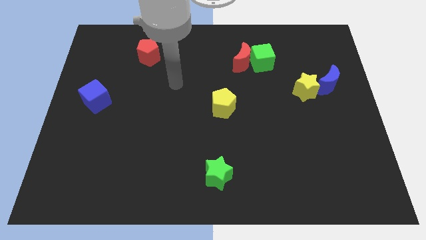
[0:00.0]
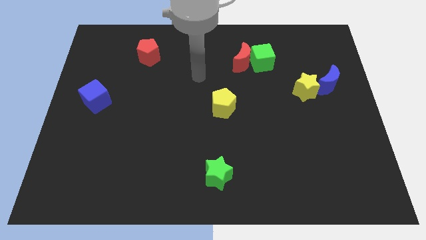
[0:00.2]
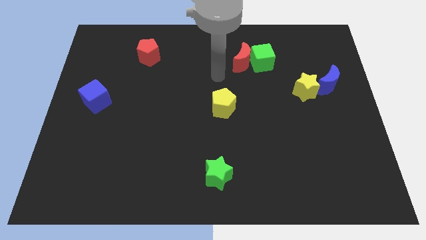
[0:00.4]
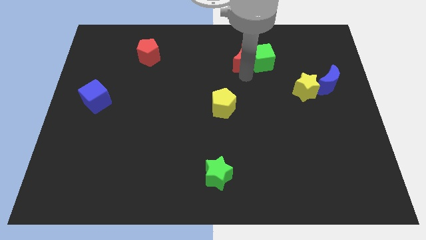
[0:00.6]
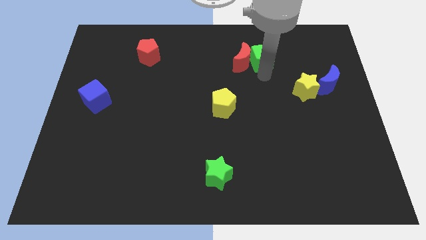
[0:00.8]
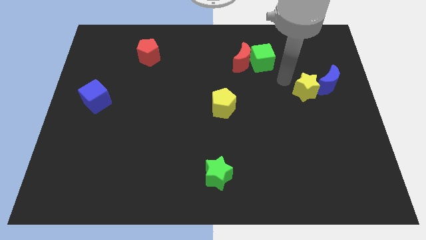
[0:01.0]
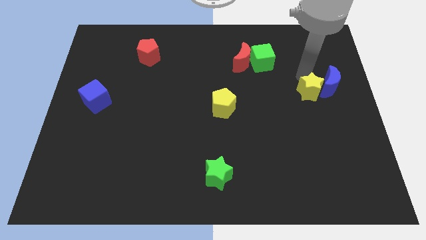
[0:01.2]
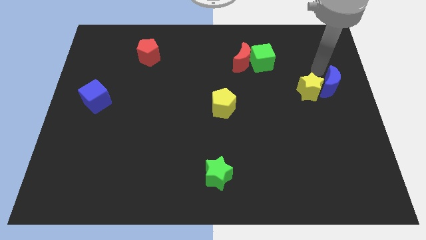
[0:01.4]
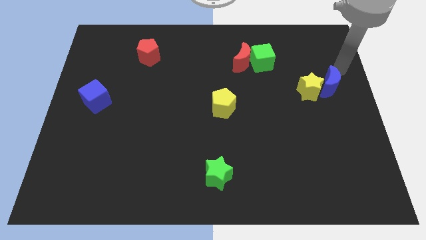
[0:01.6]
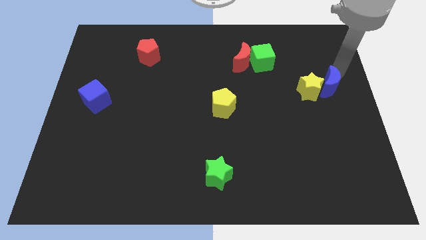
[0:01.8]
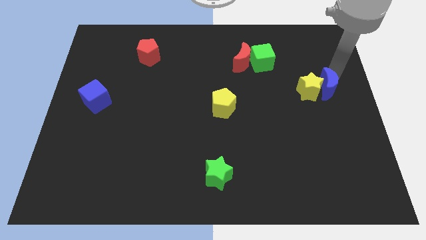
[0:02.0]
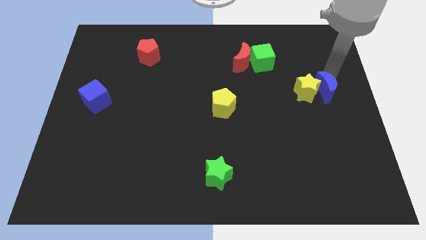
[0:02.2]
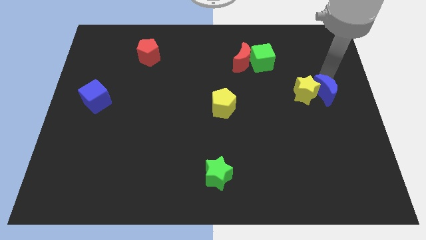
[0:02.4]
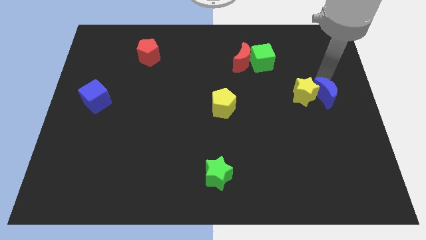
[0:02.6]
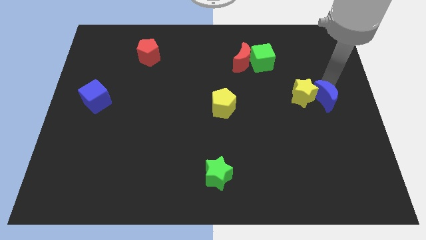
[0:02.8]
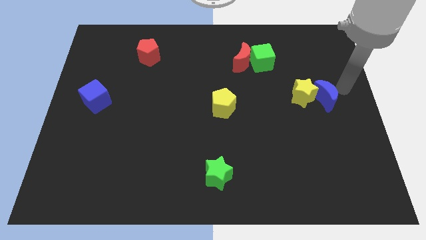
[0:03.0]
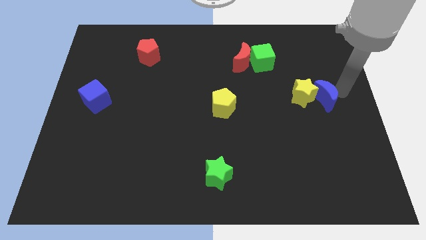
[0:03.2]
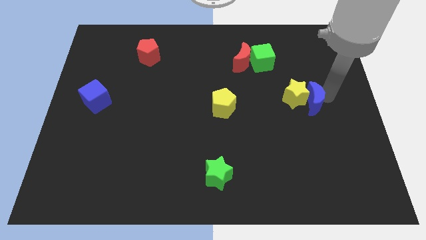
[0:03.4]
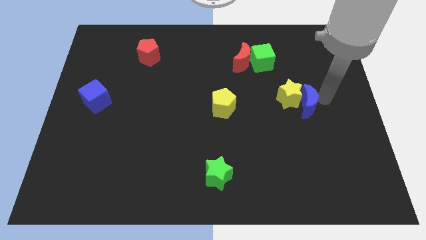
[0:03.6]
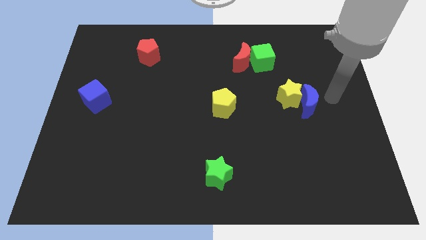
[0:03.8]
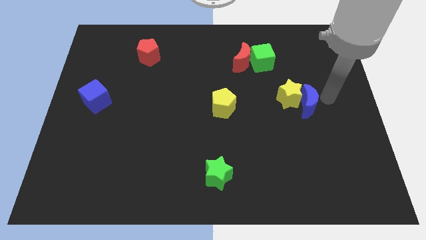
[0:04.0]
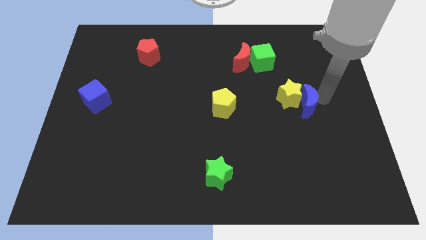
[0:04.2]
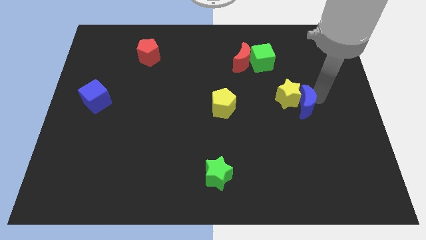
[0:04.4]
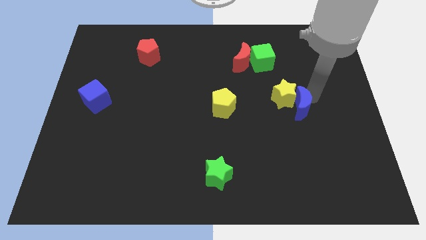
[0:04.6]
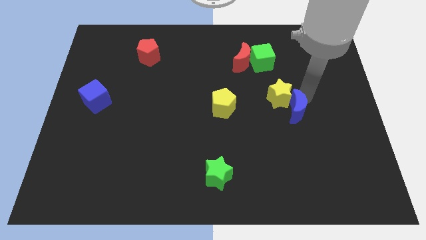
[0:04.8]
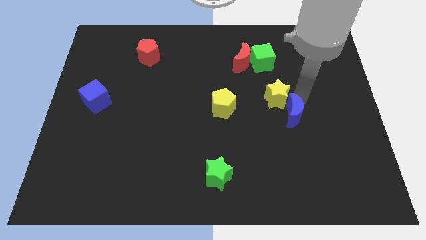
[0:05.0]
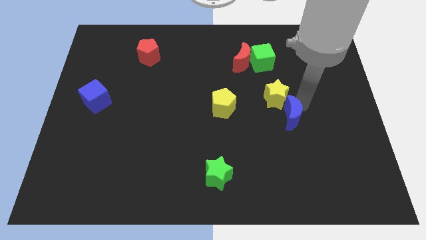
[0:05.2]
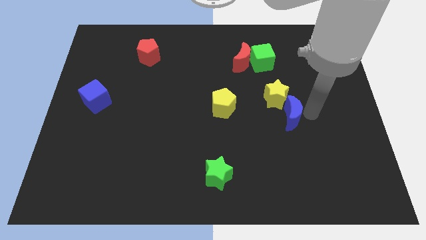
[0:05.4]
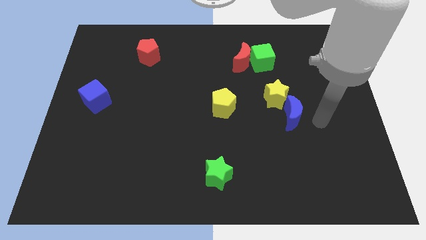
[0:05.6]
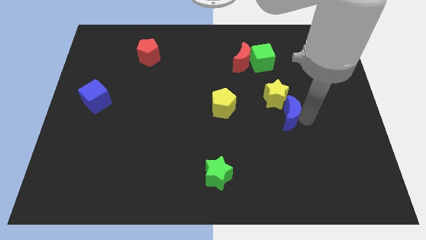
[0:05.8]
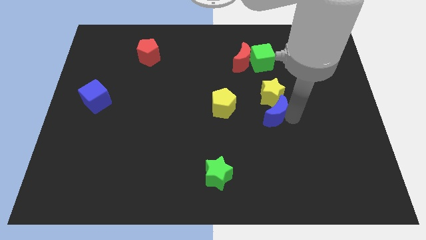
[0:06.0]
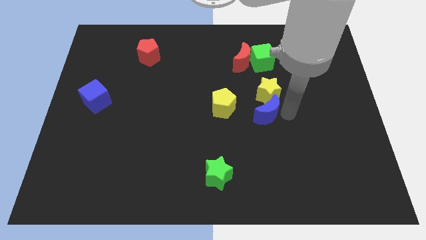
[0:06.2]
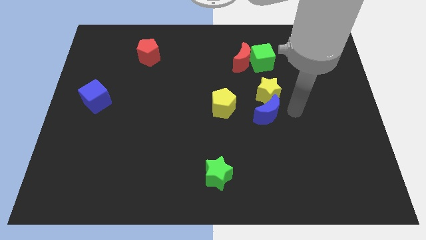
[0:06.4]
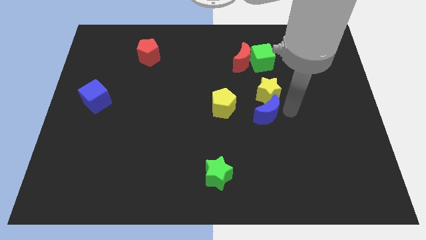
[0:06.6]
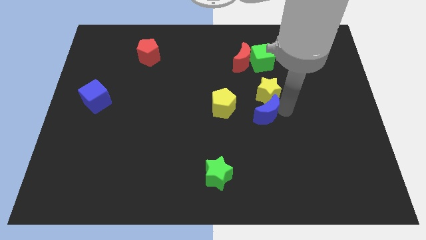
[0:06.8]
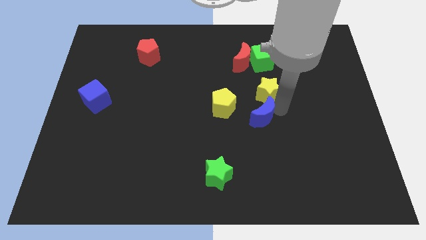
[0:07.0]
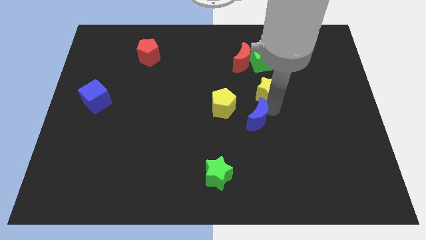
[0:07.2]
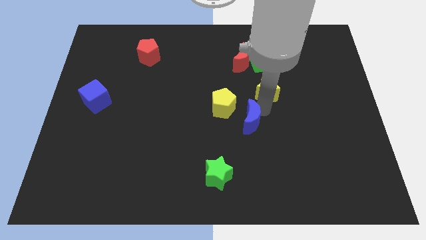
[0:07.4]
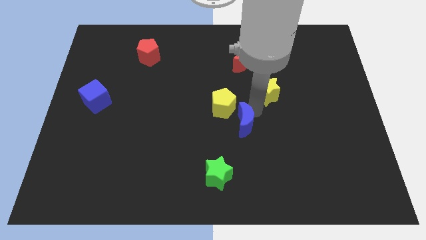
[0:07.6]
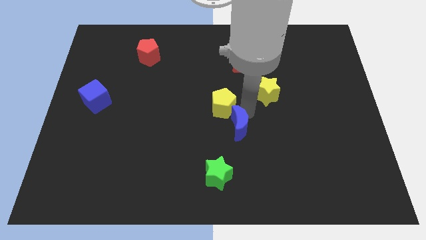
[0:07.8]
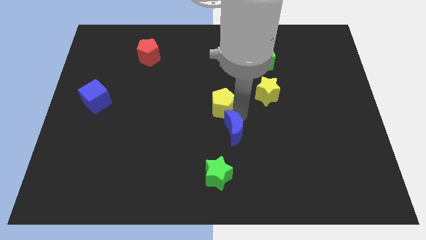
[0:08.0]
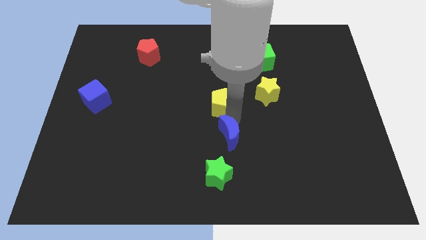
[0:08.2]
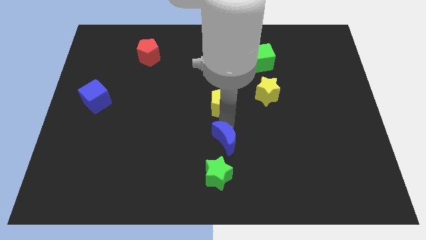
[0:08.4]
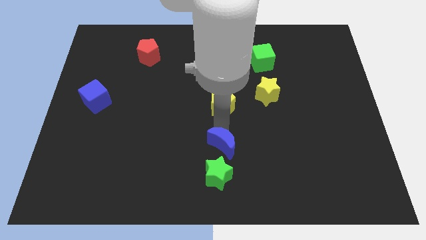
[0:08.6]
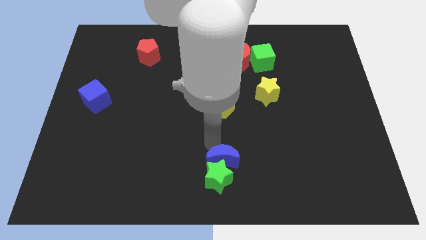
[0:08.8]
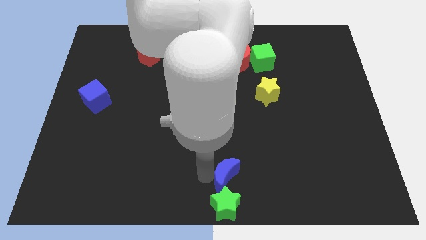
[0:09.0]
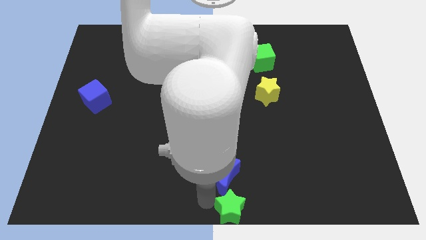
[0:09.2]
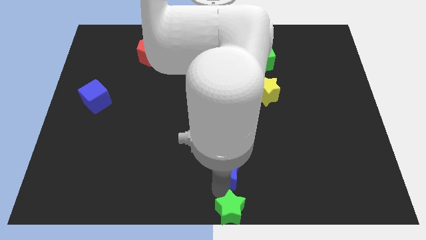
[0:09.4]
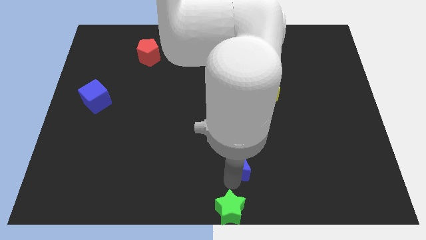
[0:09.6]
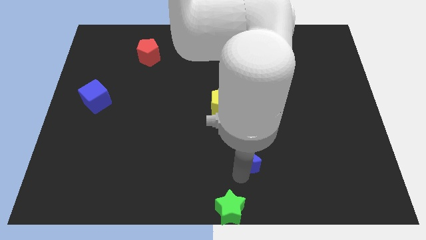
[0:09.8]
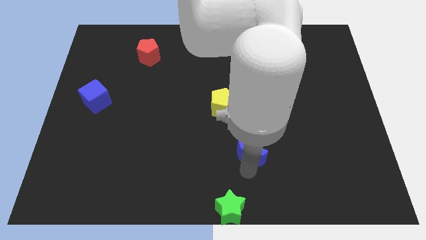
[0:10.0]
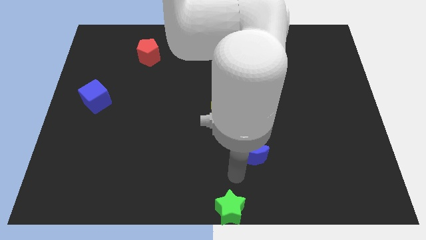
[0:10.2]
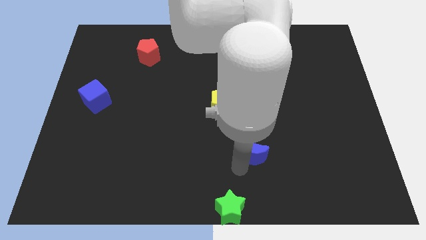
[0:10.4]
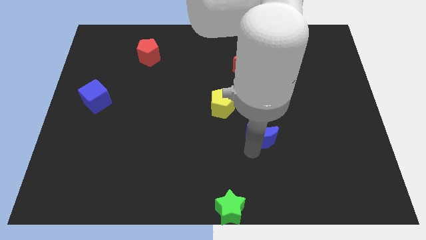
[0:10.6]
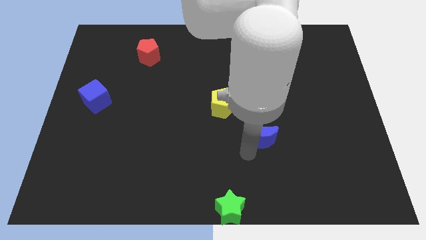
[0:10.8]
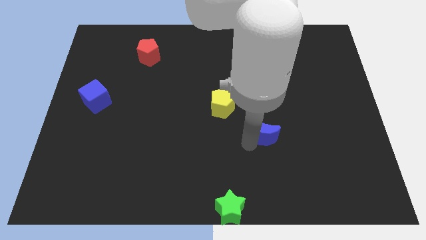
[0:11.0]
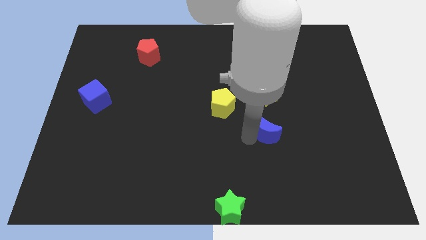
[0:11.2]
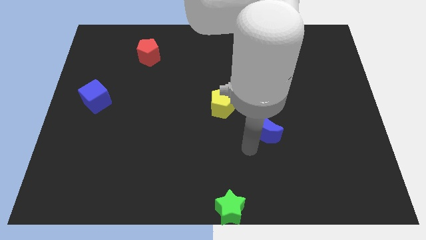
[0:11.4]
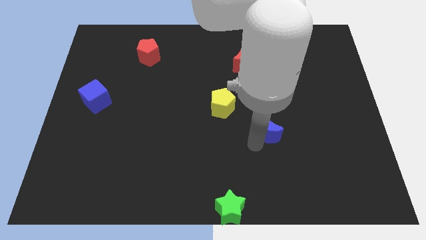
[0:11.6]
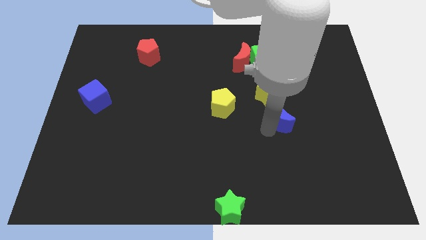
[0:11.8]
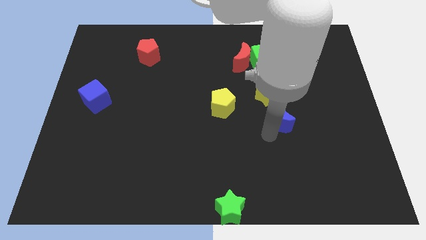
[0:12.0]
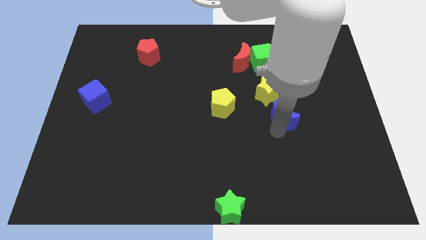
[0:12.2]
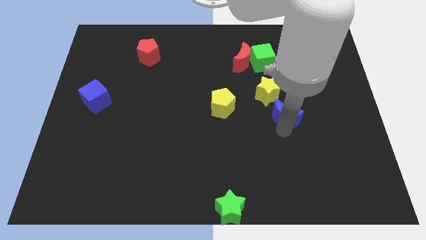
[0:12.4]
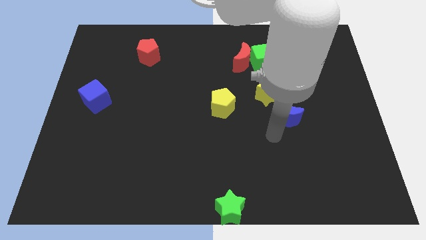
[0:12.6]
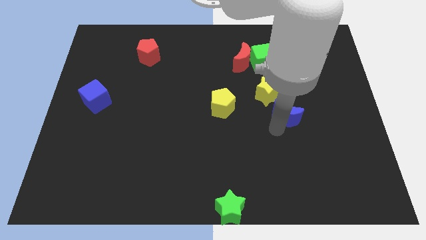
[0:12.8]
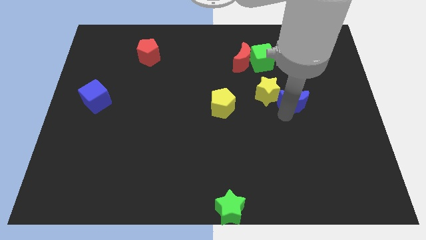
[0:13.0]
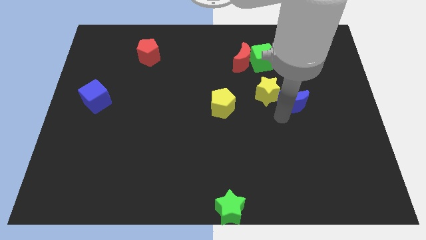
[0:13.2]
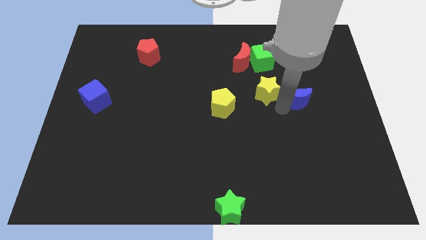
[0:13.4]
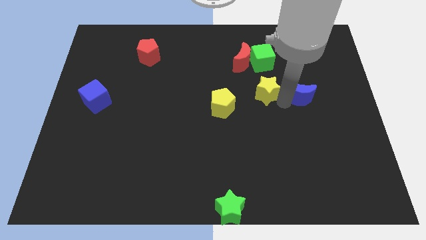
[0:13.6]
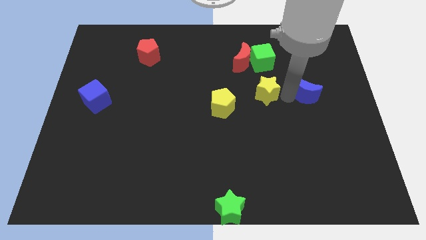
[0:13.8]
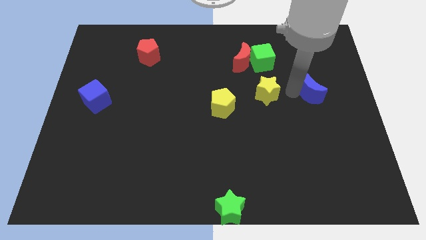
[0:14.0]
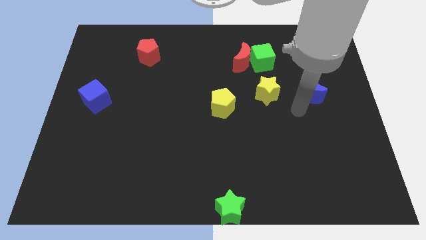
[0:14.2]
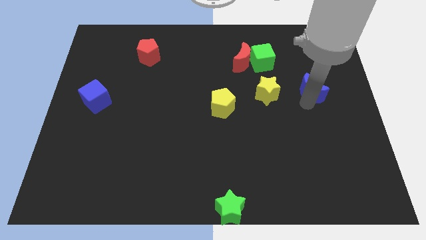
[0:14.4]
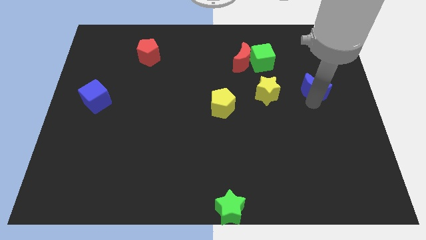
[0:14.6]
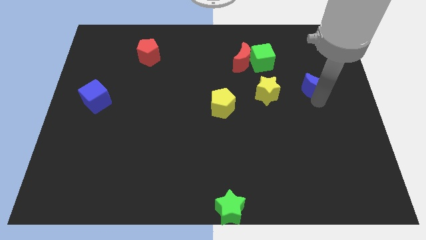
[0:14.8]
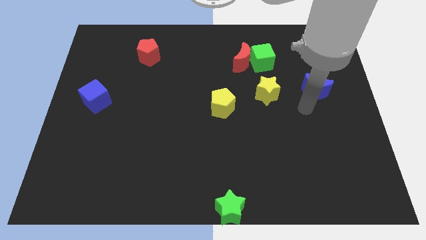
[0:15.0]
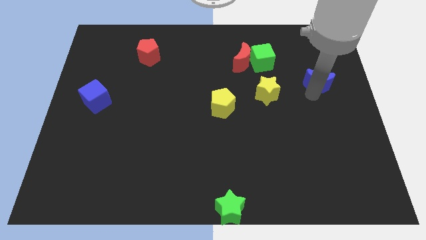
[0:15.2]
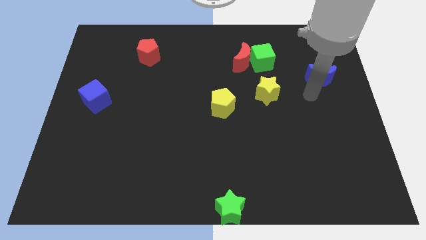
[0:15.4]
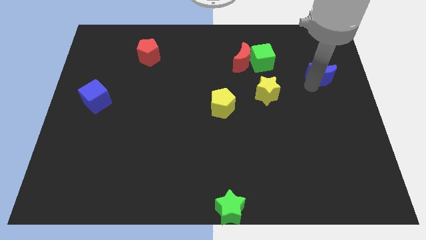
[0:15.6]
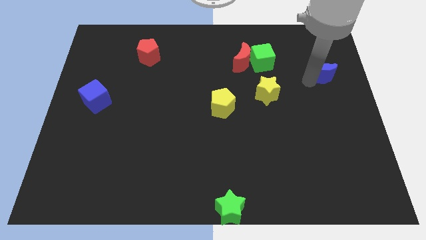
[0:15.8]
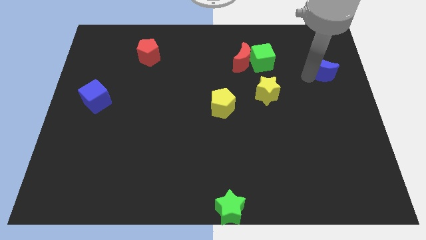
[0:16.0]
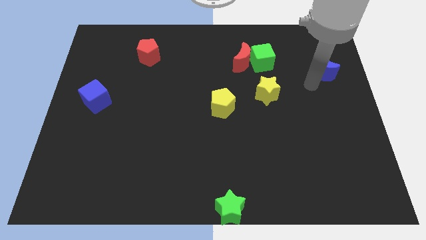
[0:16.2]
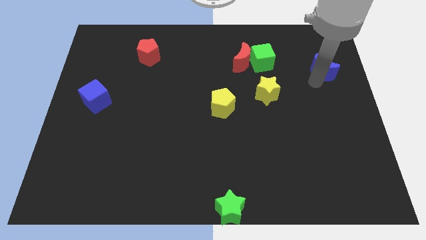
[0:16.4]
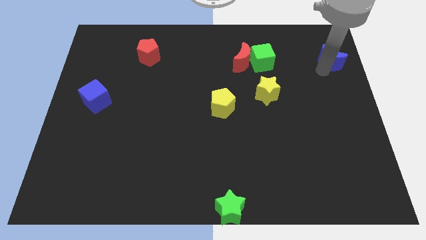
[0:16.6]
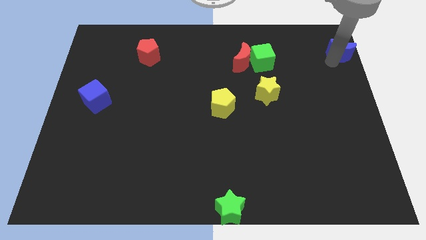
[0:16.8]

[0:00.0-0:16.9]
move the blue moon to the top right corner
